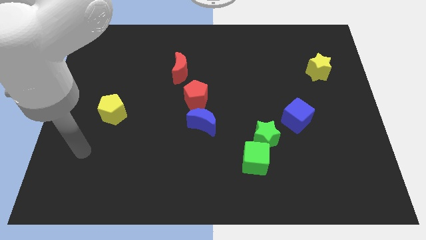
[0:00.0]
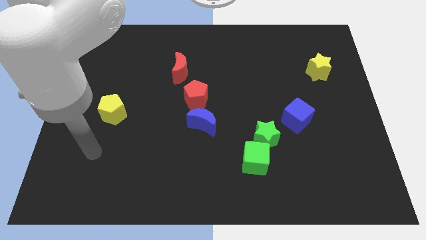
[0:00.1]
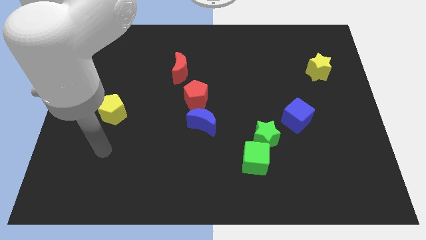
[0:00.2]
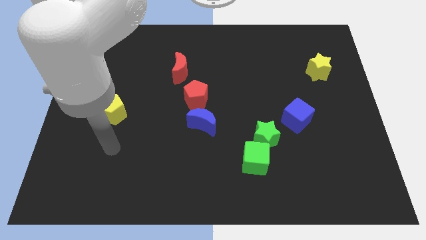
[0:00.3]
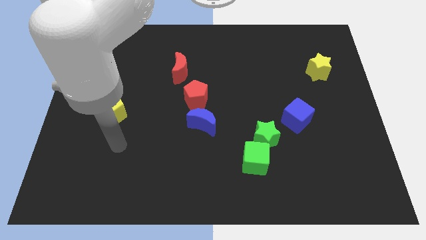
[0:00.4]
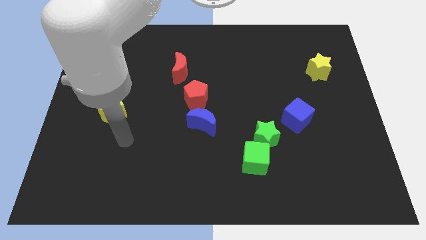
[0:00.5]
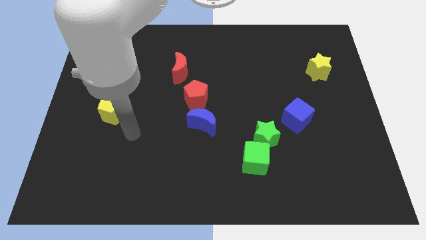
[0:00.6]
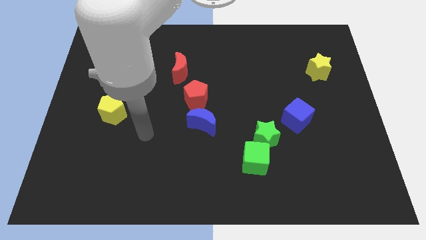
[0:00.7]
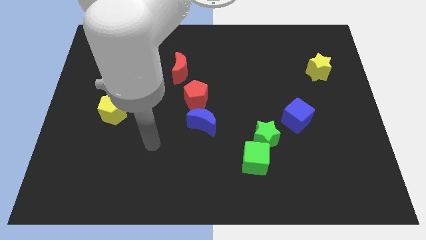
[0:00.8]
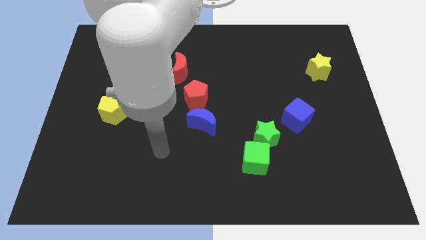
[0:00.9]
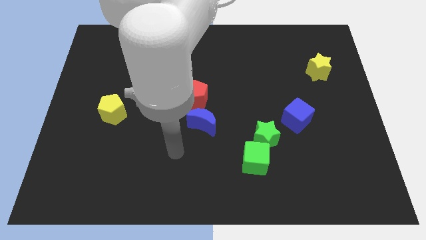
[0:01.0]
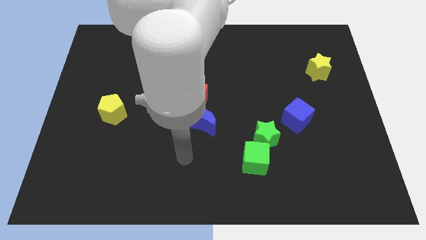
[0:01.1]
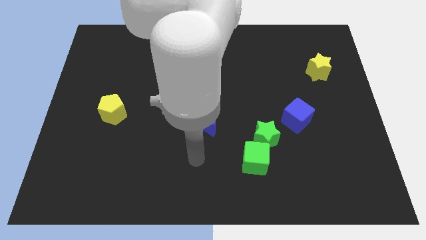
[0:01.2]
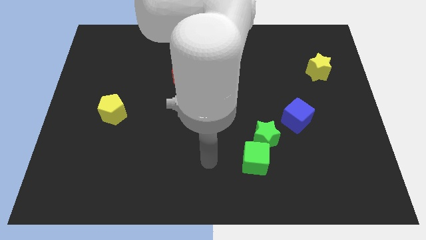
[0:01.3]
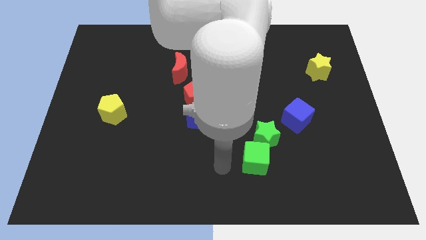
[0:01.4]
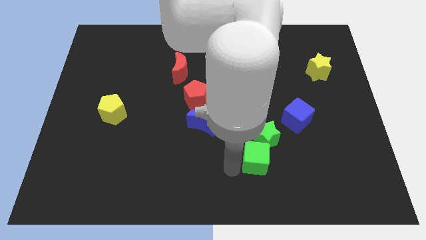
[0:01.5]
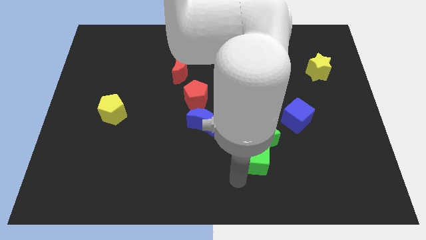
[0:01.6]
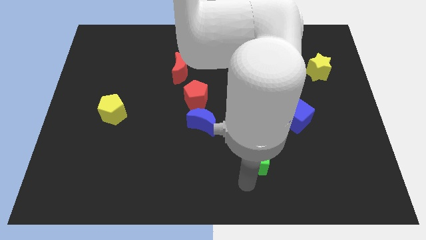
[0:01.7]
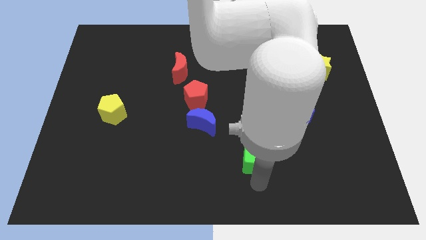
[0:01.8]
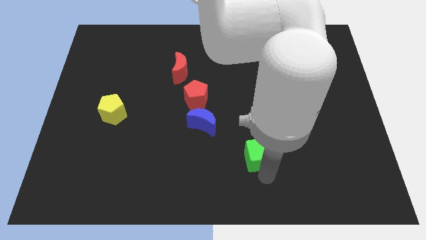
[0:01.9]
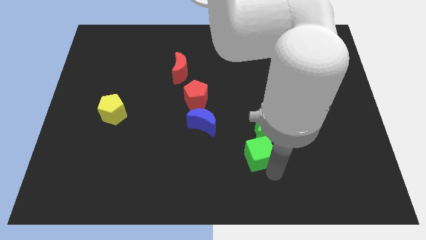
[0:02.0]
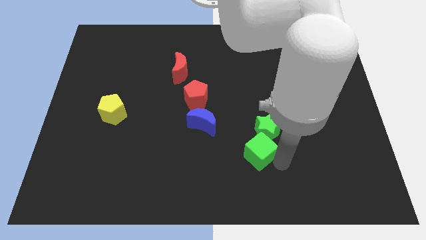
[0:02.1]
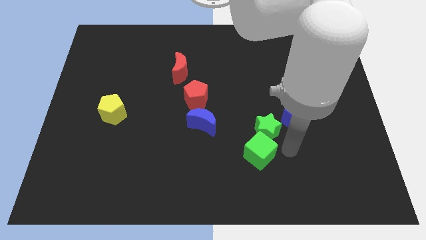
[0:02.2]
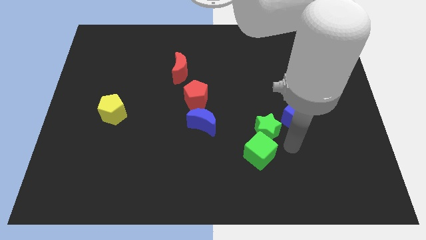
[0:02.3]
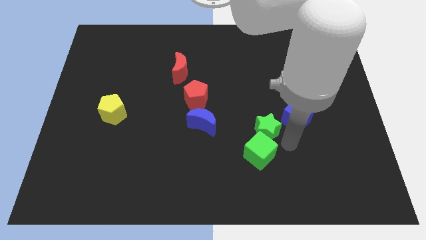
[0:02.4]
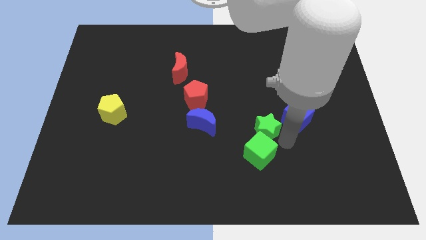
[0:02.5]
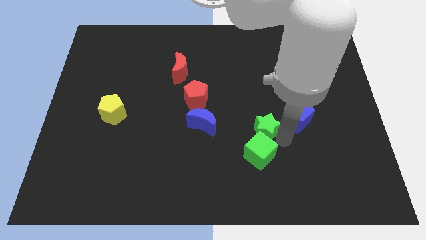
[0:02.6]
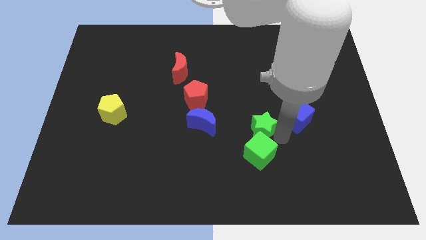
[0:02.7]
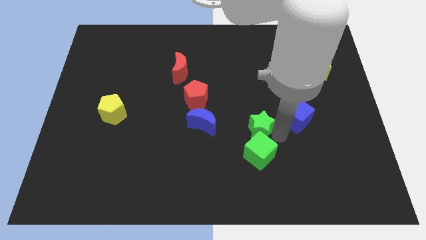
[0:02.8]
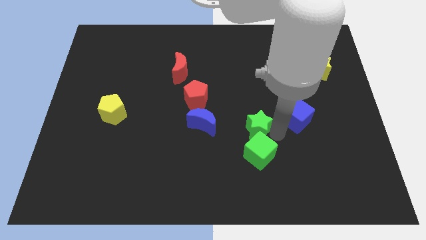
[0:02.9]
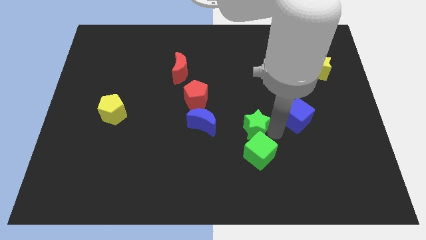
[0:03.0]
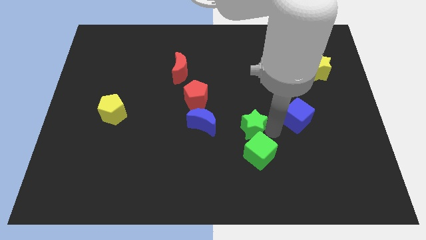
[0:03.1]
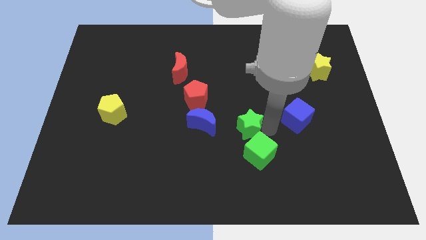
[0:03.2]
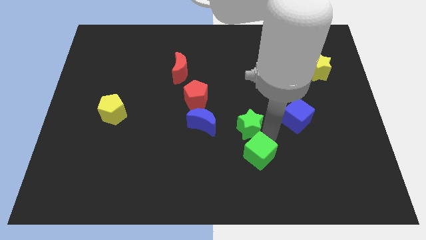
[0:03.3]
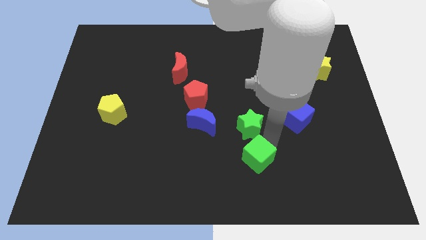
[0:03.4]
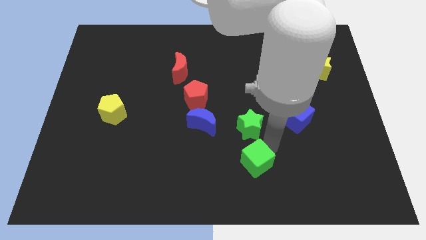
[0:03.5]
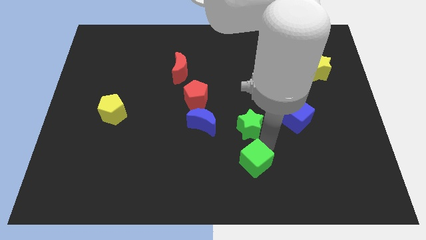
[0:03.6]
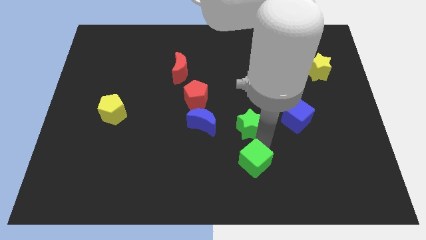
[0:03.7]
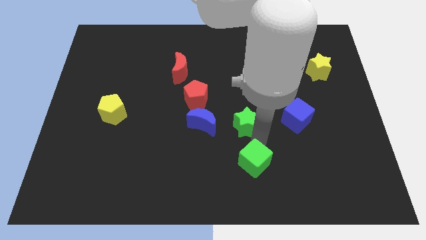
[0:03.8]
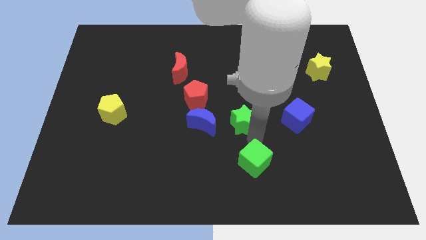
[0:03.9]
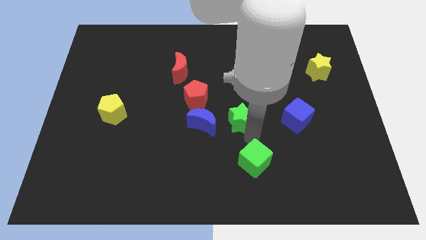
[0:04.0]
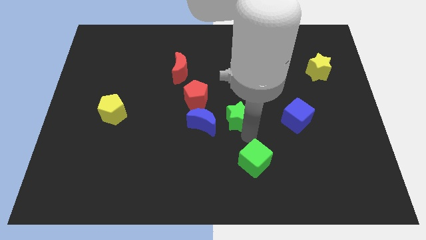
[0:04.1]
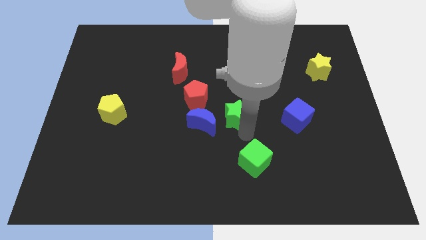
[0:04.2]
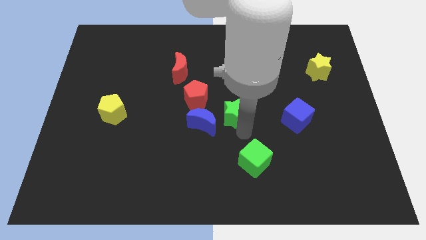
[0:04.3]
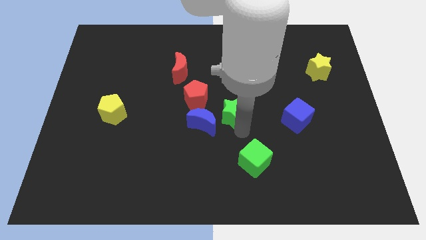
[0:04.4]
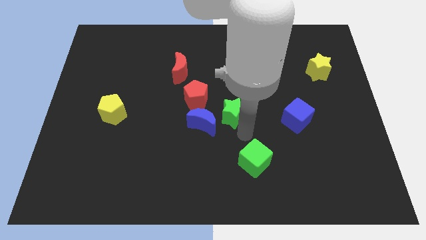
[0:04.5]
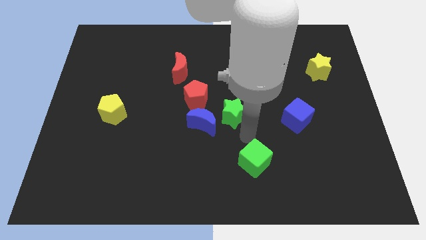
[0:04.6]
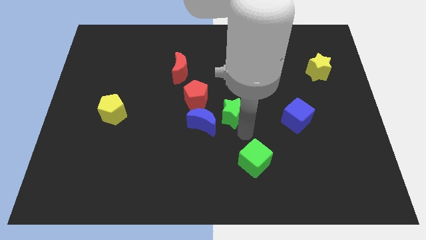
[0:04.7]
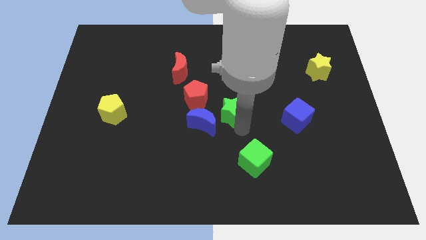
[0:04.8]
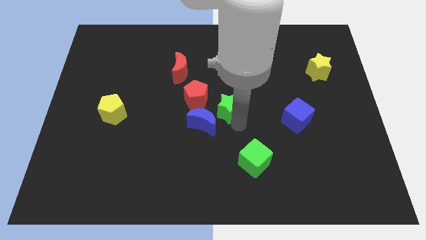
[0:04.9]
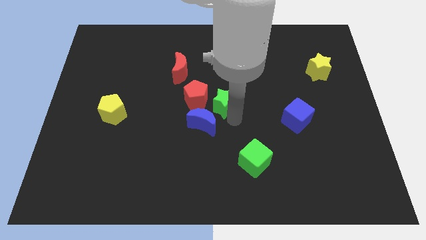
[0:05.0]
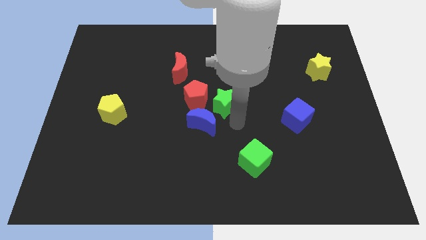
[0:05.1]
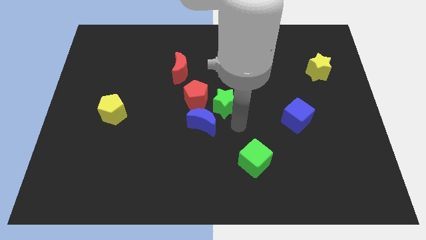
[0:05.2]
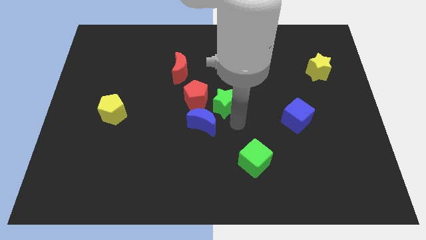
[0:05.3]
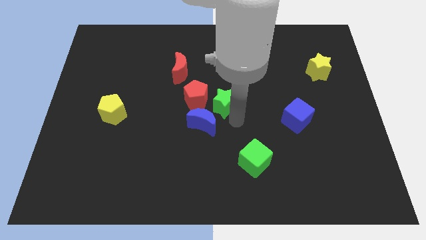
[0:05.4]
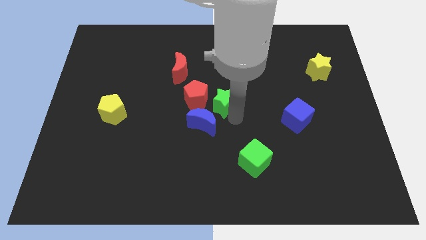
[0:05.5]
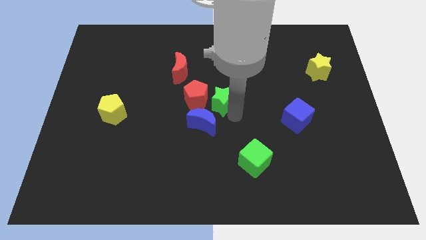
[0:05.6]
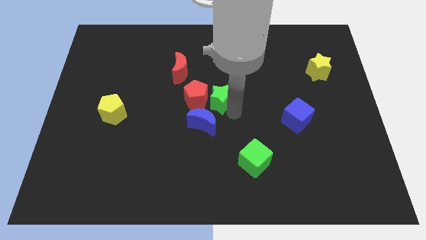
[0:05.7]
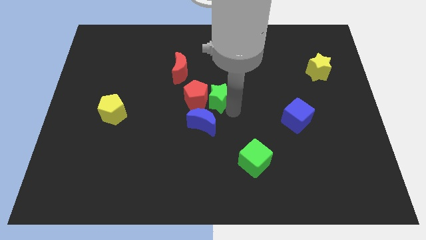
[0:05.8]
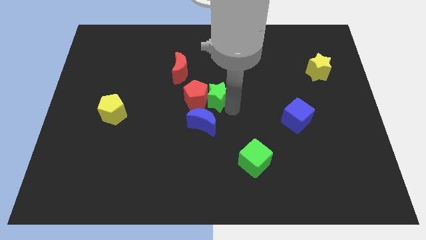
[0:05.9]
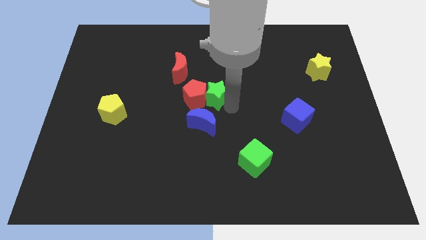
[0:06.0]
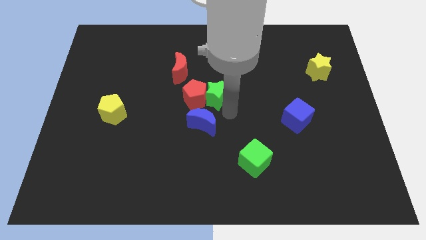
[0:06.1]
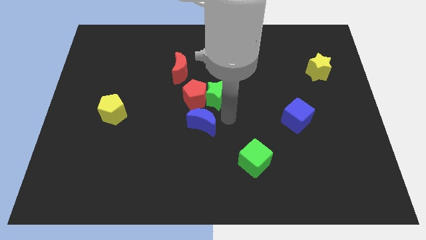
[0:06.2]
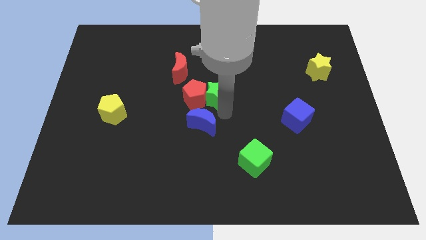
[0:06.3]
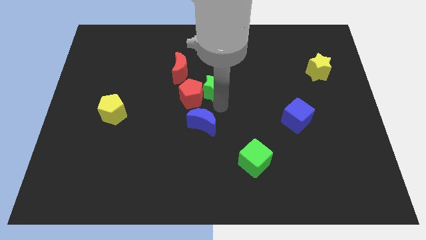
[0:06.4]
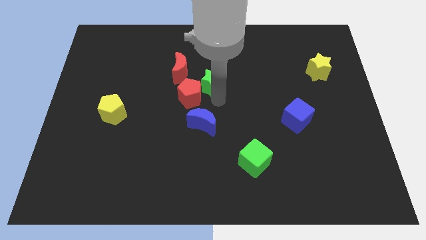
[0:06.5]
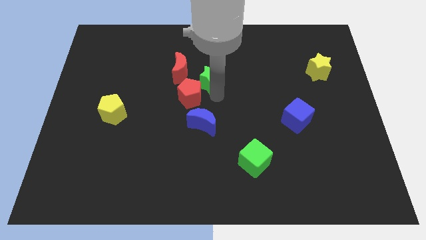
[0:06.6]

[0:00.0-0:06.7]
slide the green star up and left

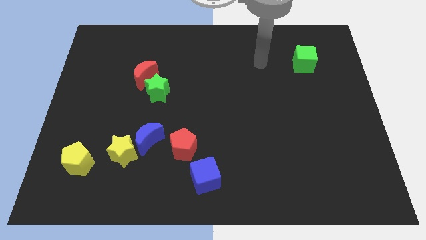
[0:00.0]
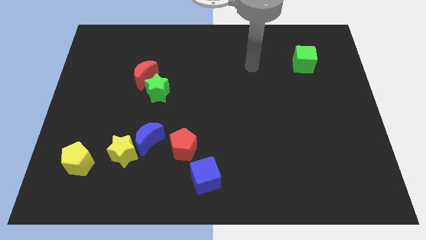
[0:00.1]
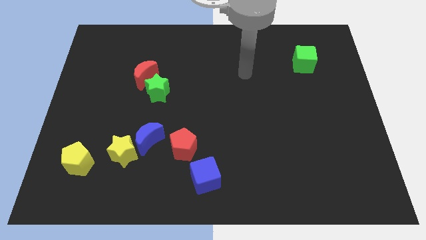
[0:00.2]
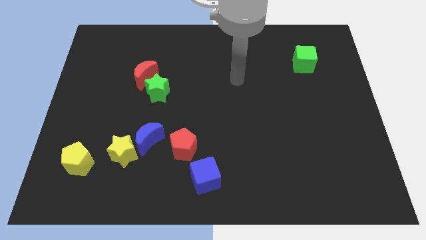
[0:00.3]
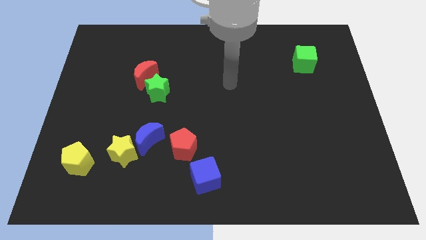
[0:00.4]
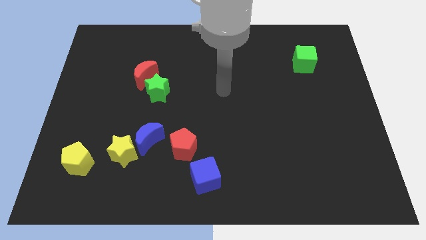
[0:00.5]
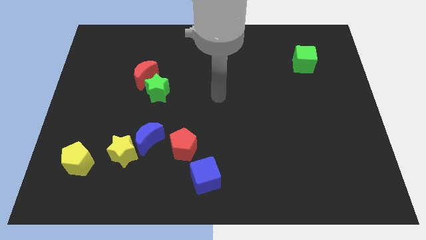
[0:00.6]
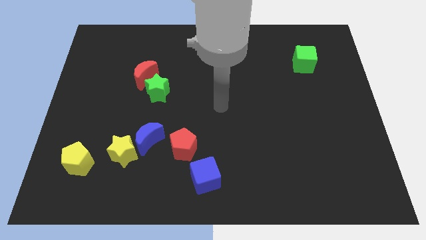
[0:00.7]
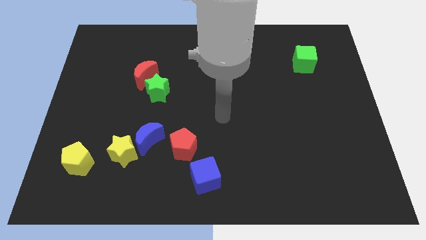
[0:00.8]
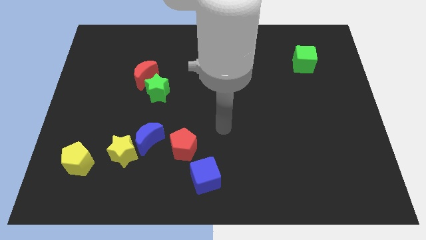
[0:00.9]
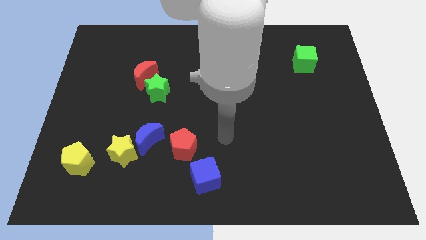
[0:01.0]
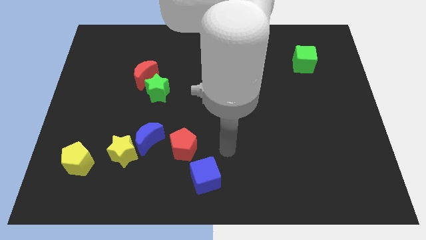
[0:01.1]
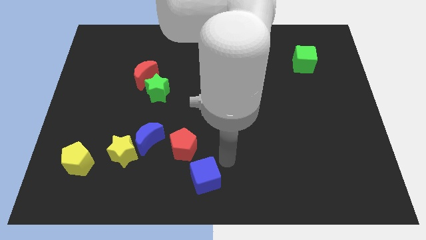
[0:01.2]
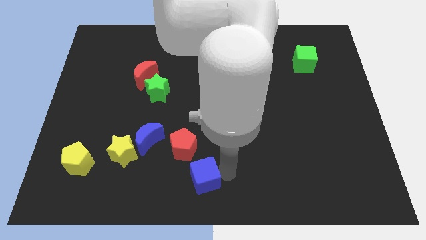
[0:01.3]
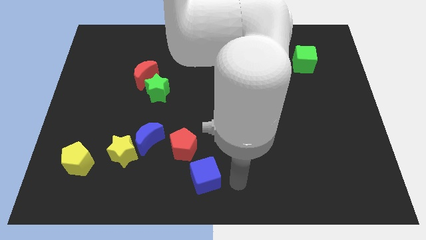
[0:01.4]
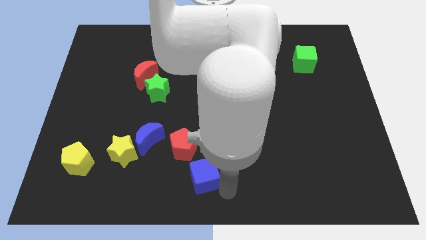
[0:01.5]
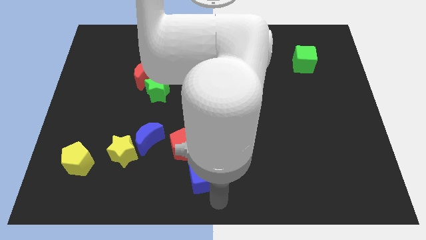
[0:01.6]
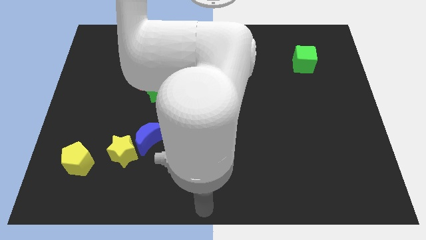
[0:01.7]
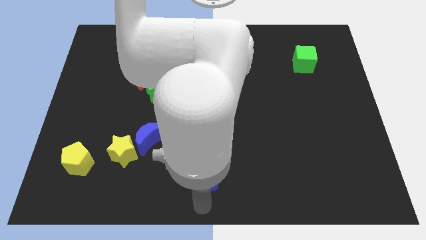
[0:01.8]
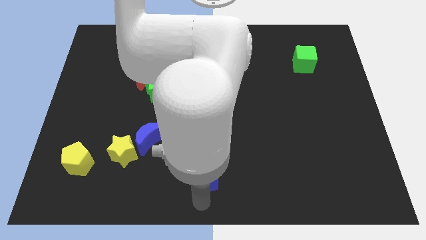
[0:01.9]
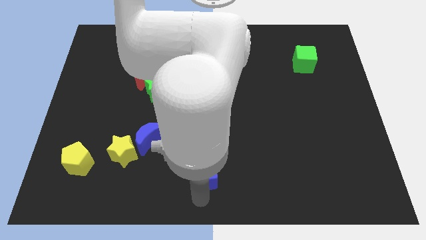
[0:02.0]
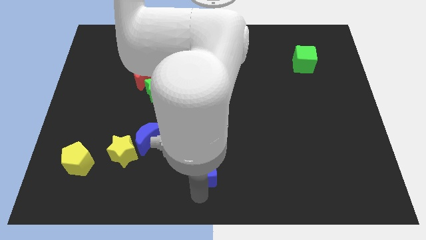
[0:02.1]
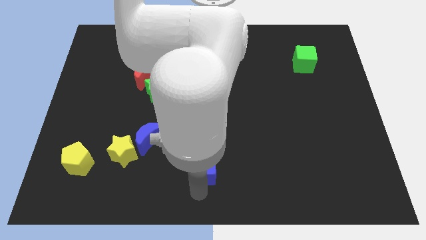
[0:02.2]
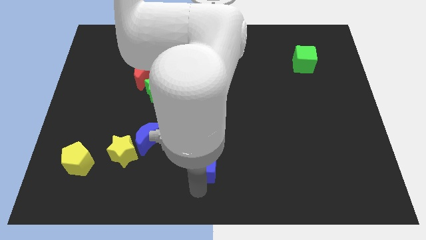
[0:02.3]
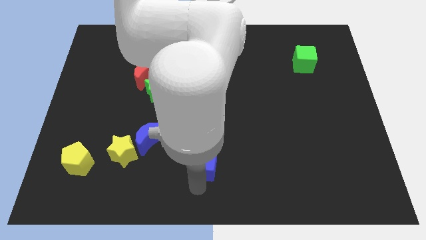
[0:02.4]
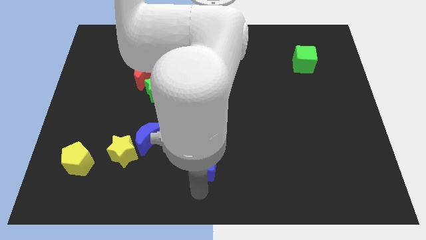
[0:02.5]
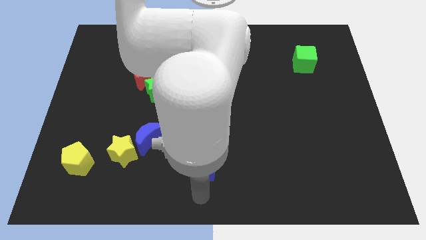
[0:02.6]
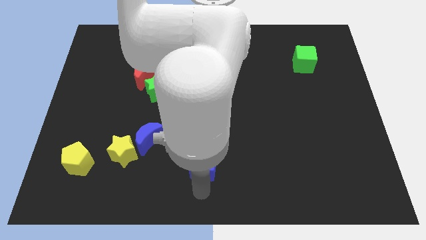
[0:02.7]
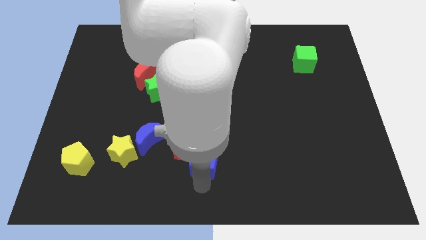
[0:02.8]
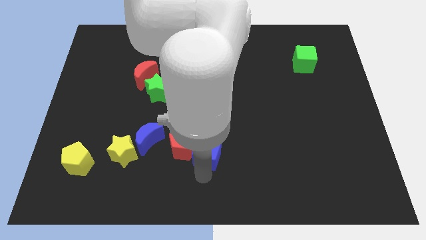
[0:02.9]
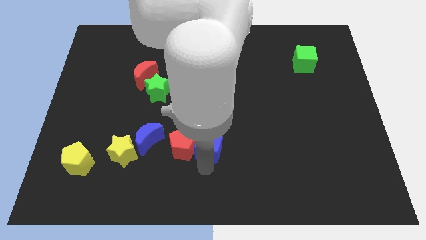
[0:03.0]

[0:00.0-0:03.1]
slightly move the blue cube up
